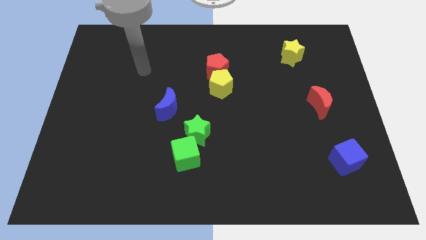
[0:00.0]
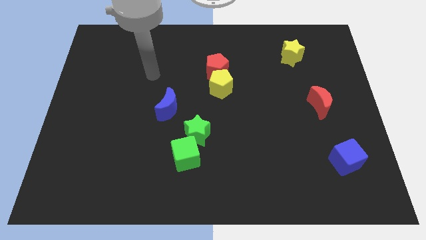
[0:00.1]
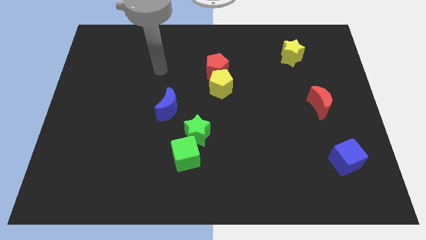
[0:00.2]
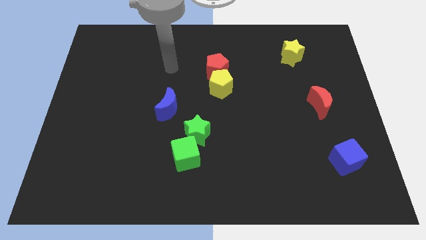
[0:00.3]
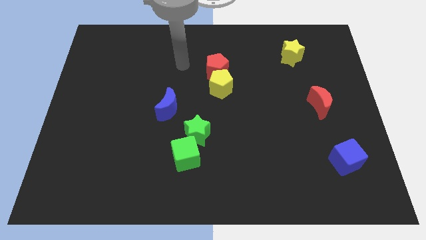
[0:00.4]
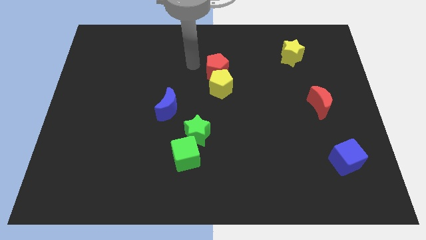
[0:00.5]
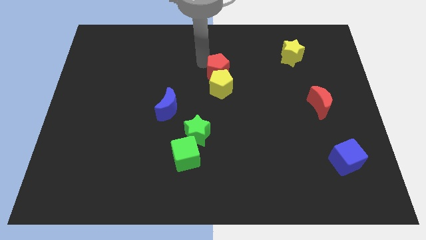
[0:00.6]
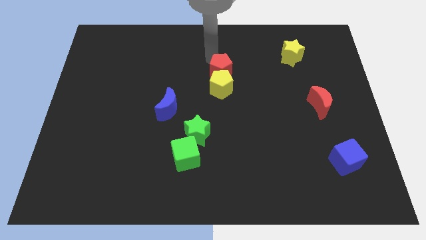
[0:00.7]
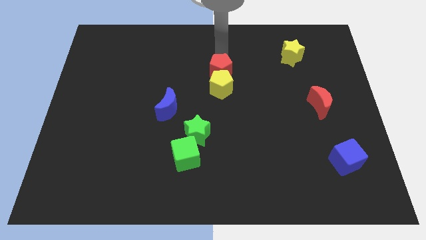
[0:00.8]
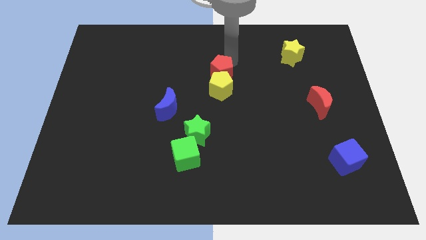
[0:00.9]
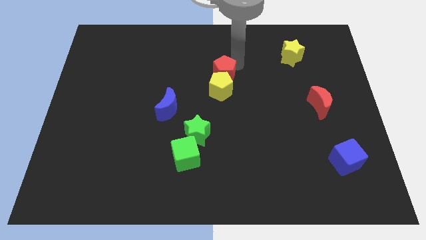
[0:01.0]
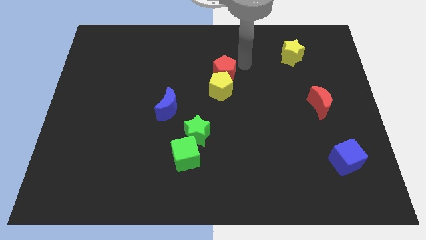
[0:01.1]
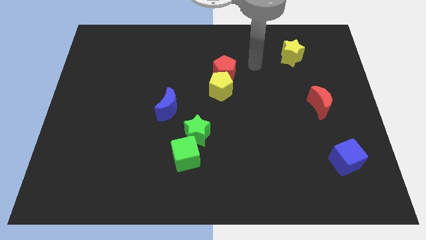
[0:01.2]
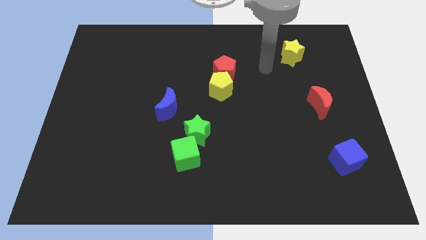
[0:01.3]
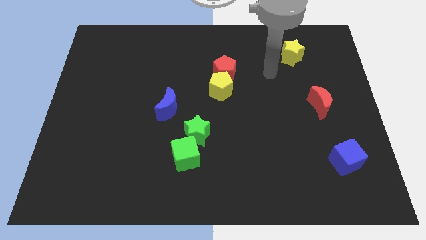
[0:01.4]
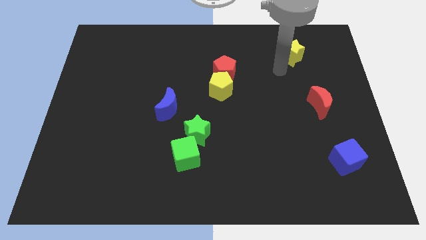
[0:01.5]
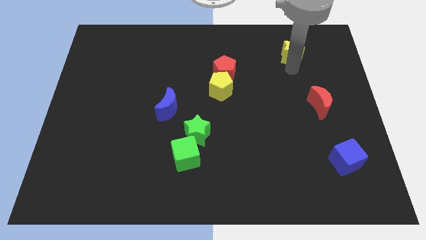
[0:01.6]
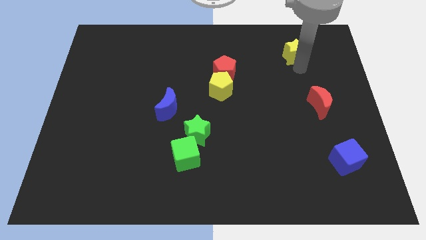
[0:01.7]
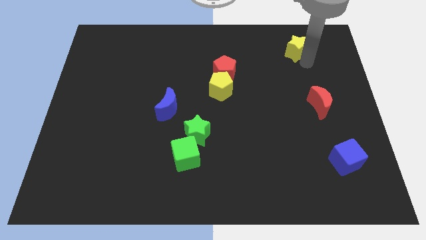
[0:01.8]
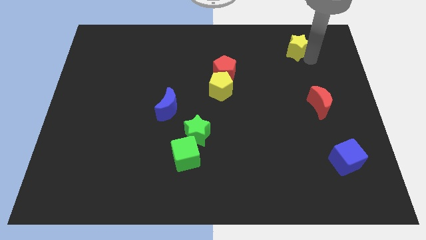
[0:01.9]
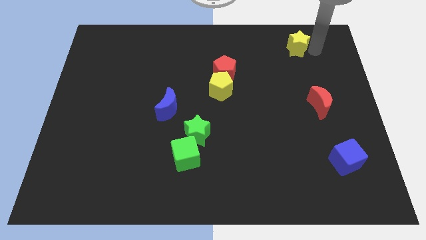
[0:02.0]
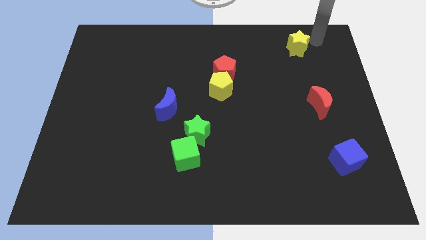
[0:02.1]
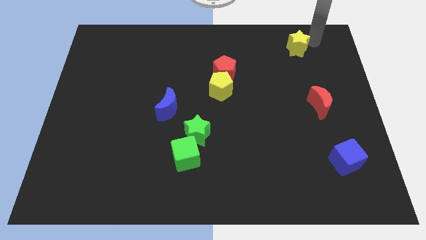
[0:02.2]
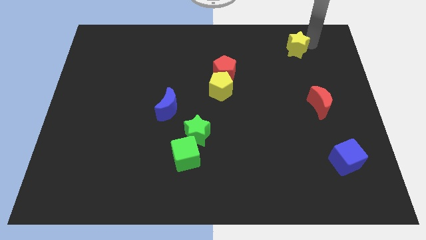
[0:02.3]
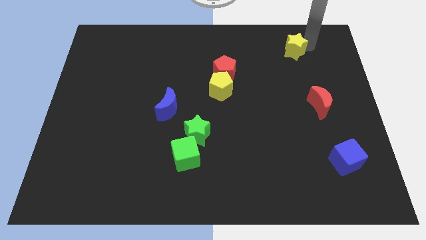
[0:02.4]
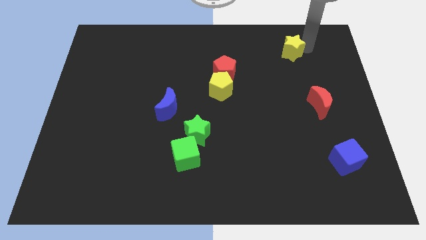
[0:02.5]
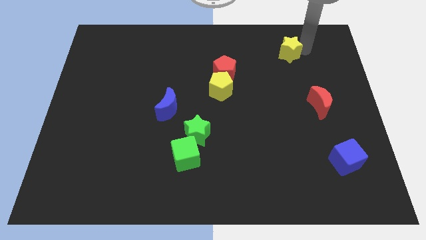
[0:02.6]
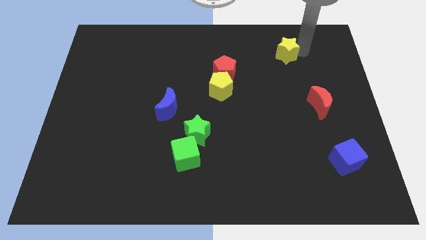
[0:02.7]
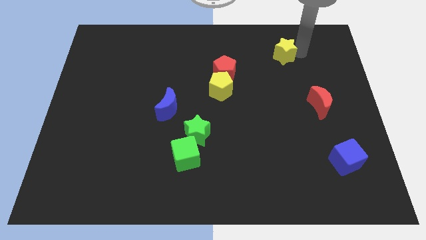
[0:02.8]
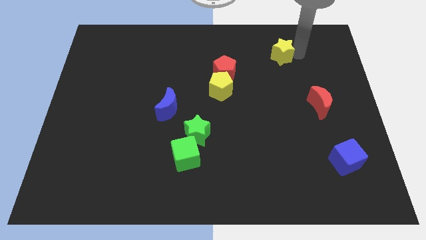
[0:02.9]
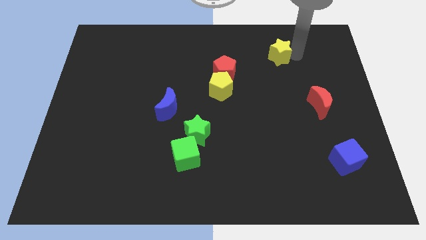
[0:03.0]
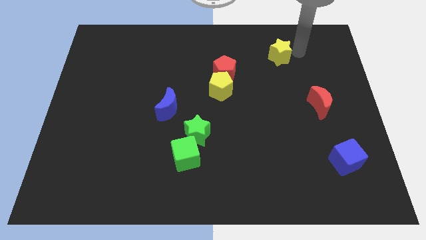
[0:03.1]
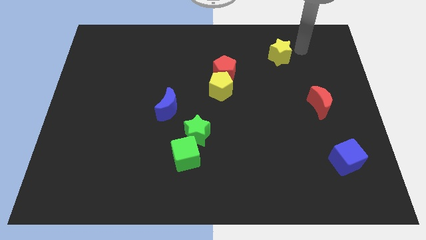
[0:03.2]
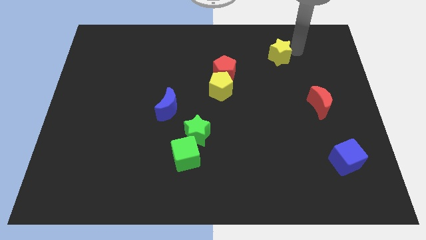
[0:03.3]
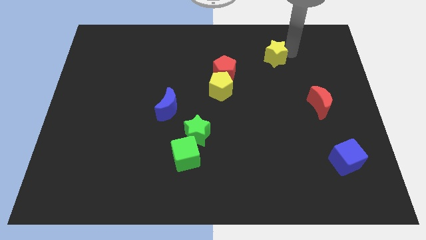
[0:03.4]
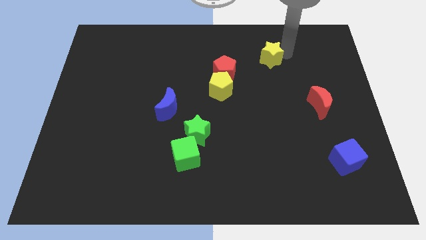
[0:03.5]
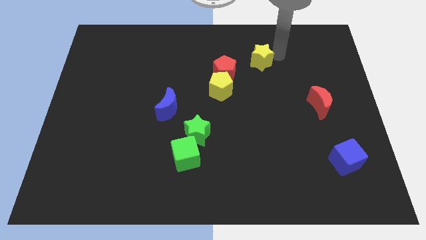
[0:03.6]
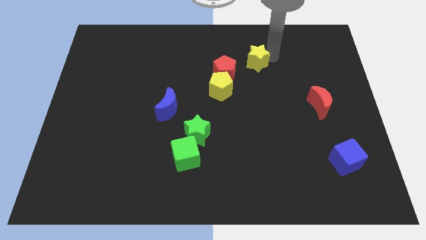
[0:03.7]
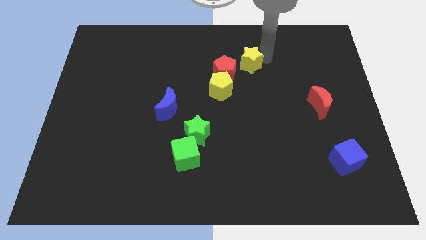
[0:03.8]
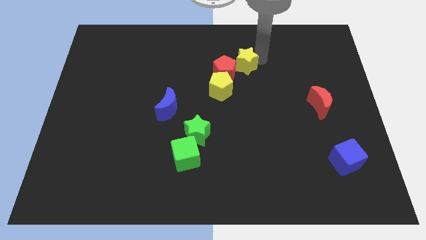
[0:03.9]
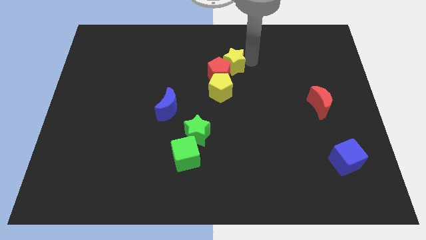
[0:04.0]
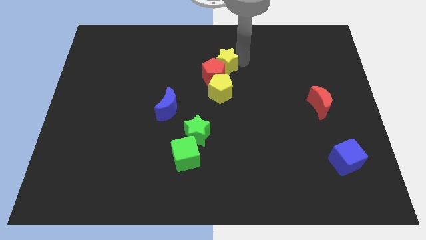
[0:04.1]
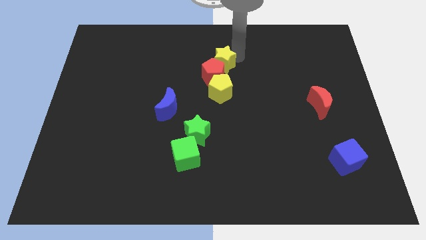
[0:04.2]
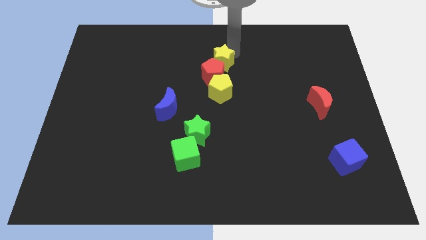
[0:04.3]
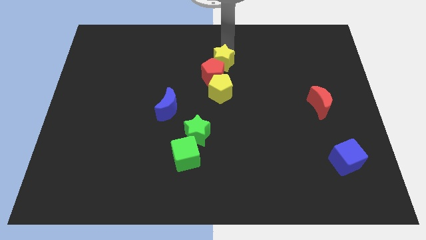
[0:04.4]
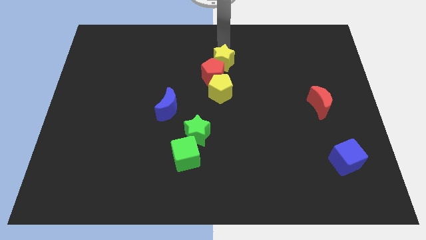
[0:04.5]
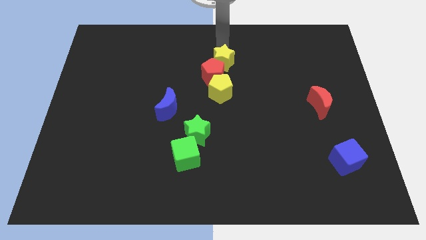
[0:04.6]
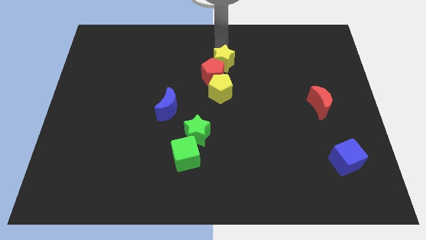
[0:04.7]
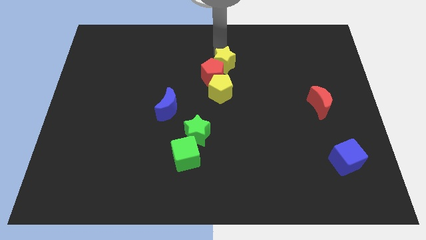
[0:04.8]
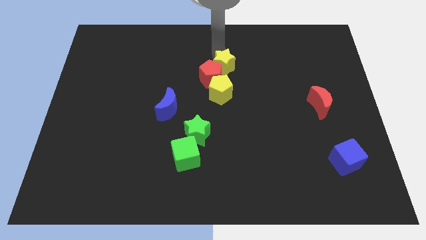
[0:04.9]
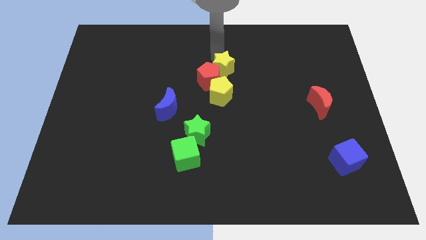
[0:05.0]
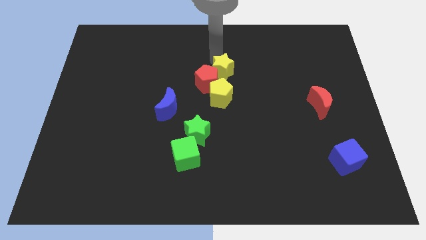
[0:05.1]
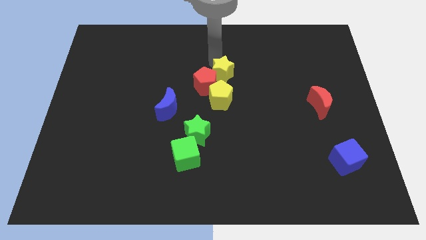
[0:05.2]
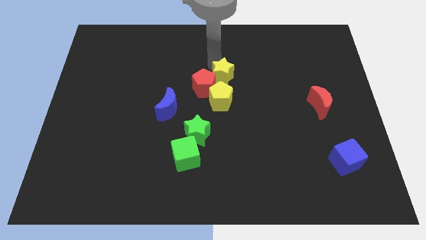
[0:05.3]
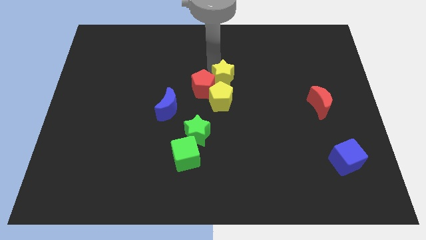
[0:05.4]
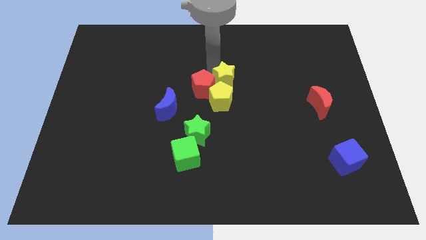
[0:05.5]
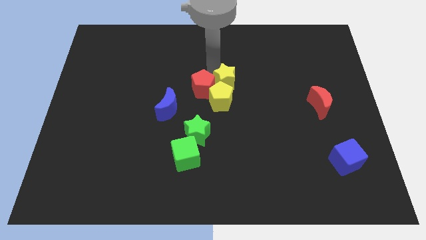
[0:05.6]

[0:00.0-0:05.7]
push the yellow star to the yellow pentagon

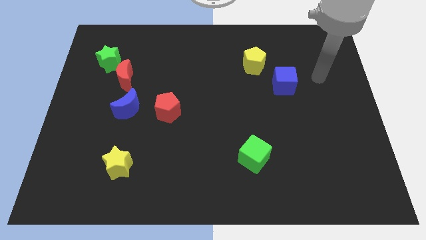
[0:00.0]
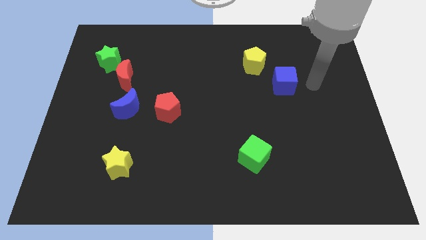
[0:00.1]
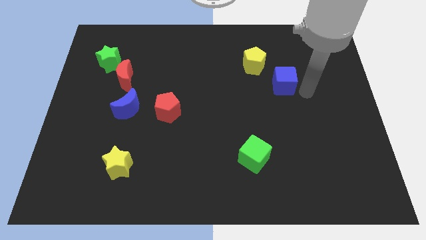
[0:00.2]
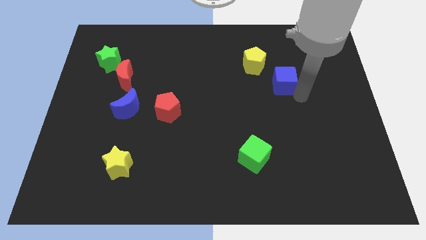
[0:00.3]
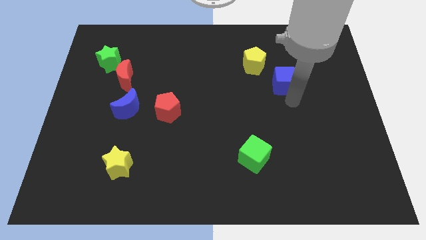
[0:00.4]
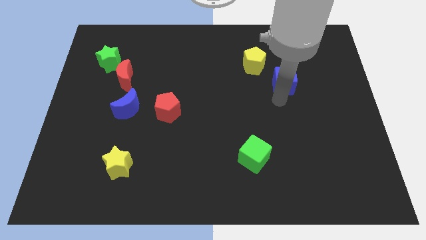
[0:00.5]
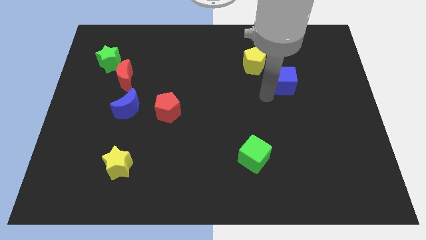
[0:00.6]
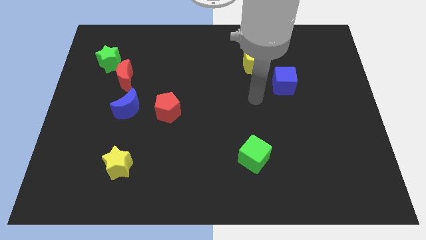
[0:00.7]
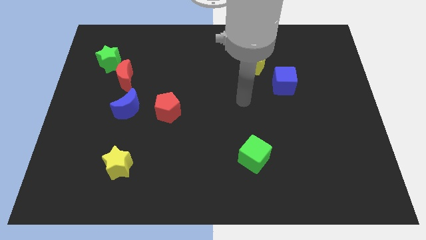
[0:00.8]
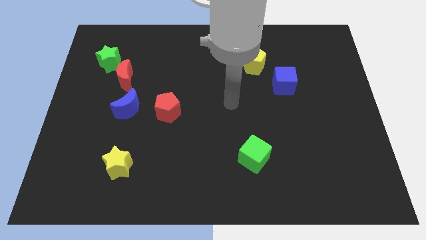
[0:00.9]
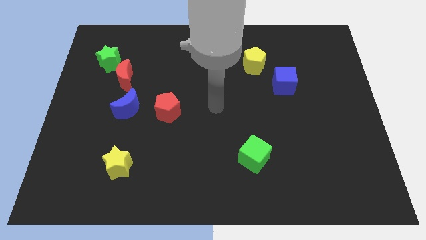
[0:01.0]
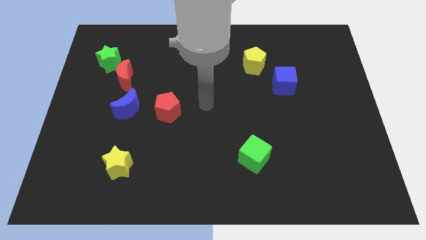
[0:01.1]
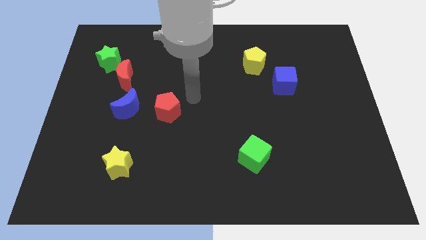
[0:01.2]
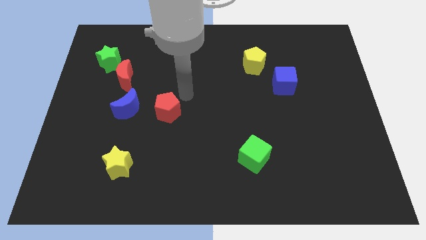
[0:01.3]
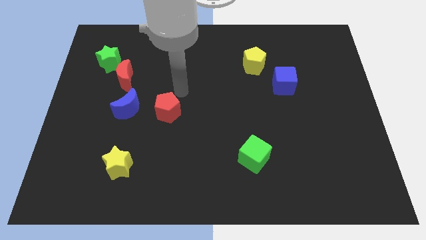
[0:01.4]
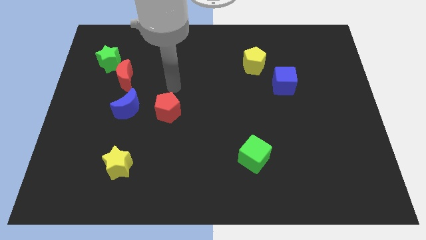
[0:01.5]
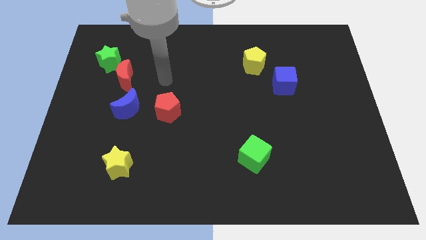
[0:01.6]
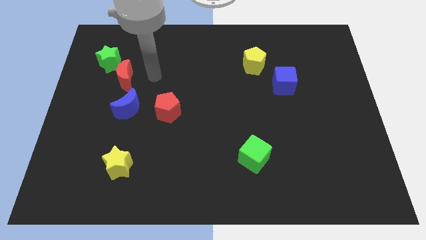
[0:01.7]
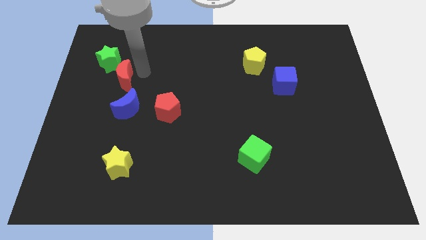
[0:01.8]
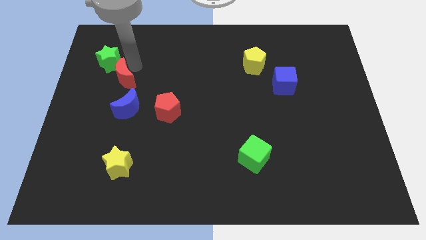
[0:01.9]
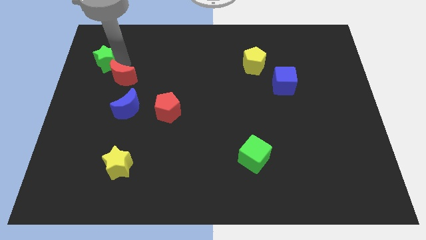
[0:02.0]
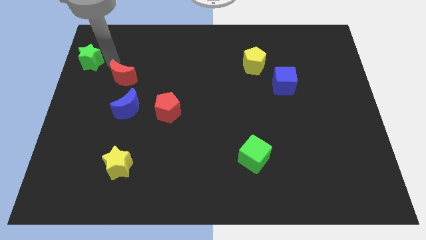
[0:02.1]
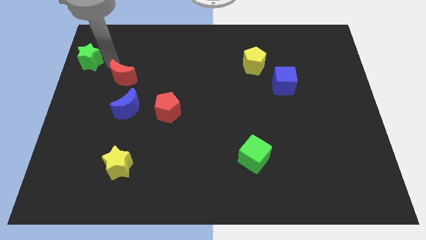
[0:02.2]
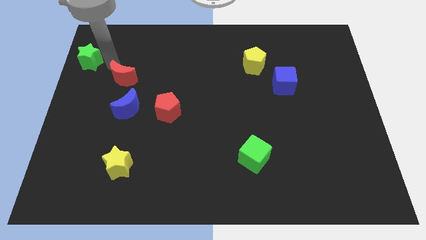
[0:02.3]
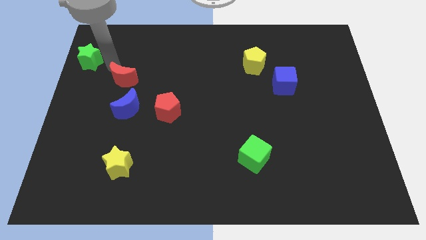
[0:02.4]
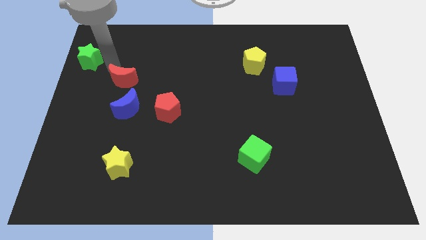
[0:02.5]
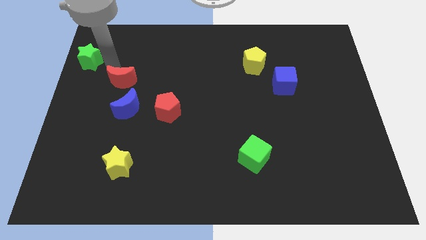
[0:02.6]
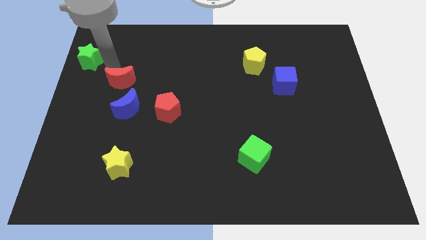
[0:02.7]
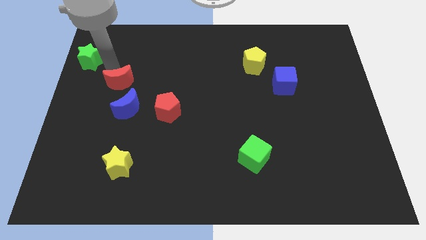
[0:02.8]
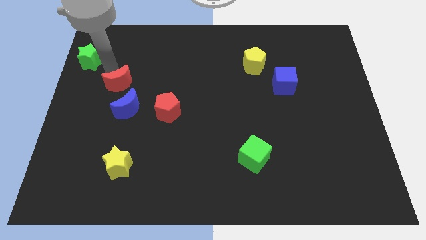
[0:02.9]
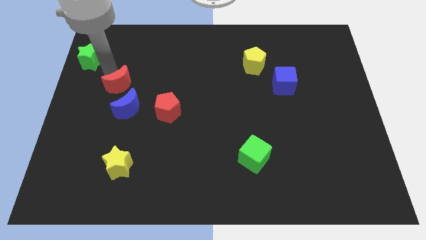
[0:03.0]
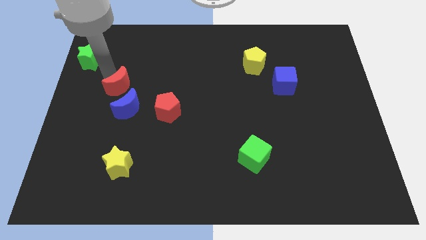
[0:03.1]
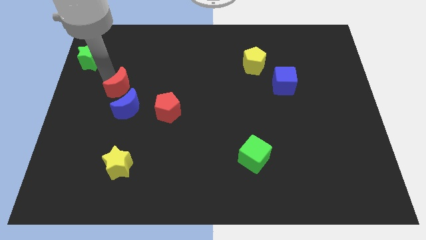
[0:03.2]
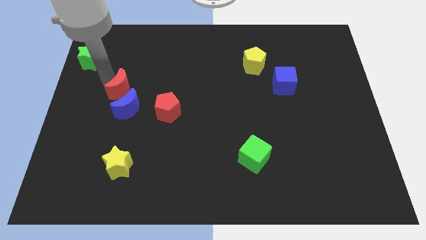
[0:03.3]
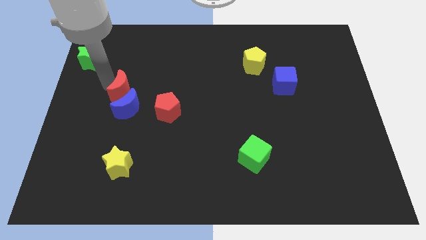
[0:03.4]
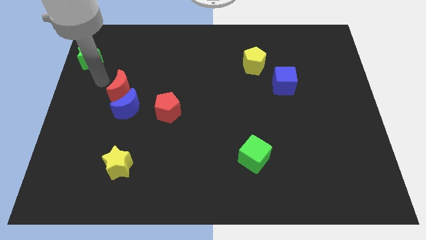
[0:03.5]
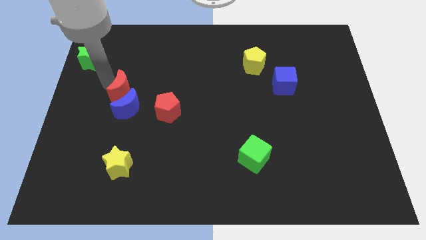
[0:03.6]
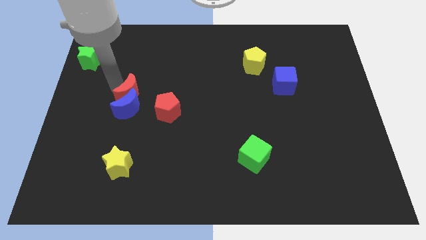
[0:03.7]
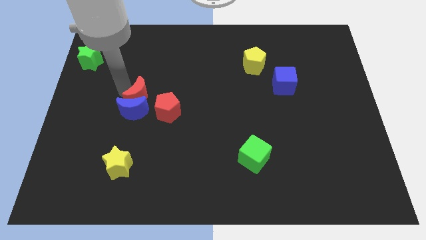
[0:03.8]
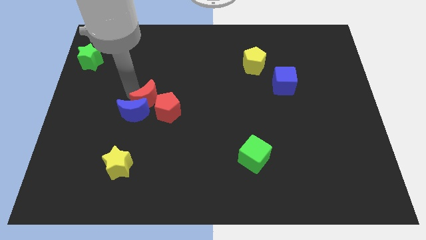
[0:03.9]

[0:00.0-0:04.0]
move the red moon next to the red pentagon
